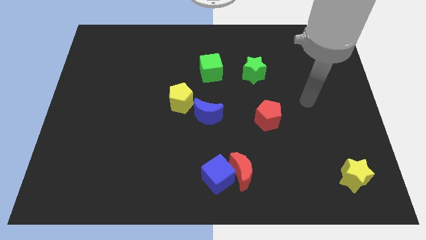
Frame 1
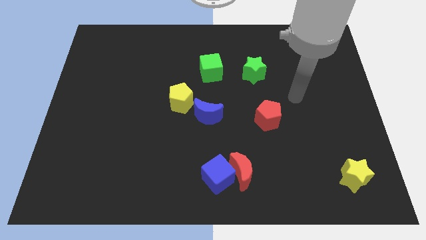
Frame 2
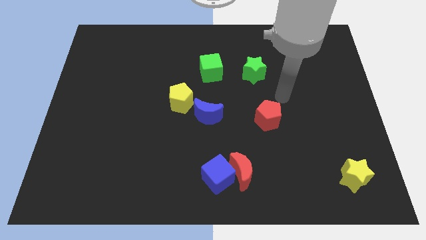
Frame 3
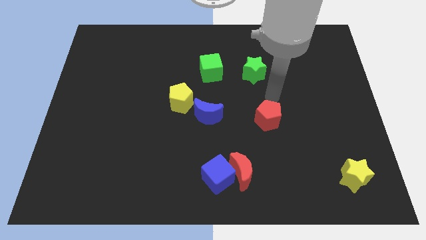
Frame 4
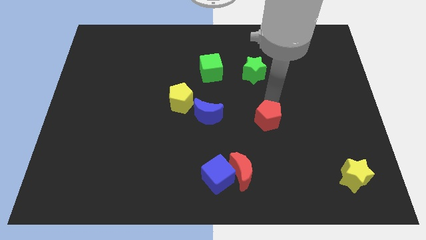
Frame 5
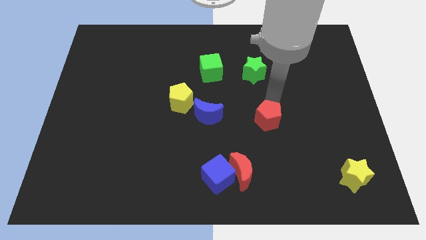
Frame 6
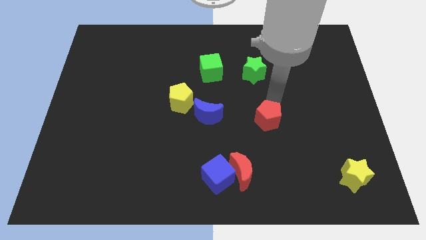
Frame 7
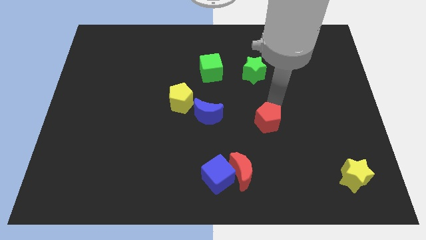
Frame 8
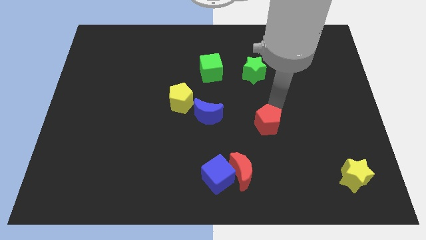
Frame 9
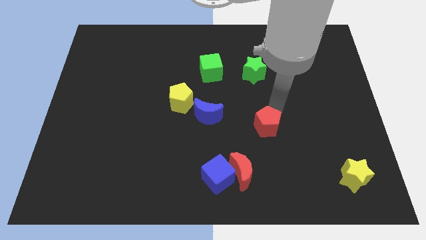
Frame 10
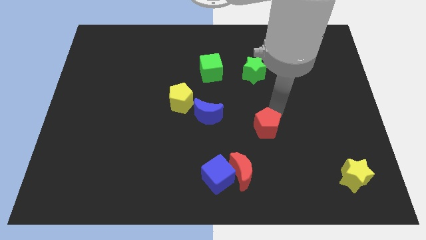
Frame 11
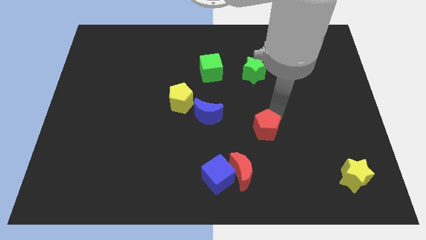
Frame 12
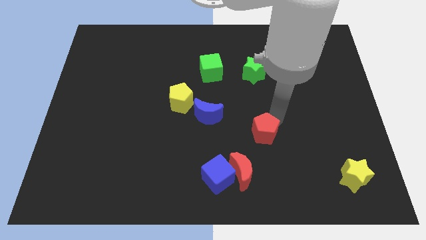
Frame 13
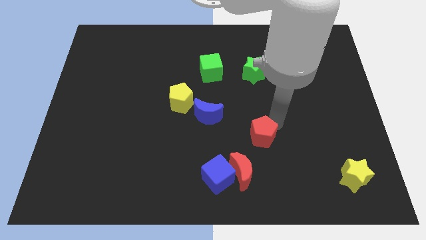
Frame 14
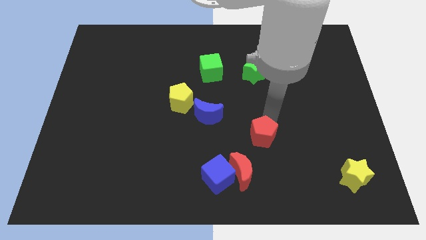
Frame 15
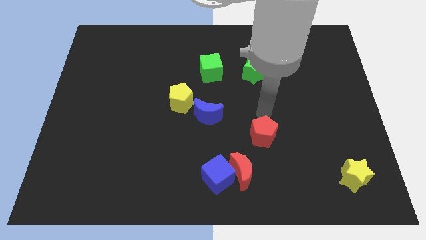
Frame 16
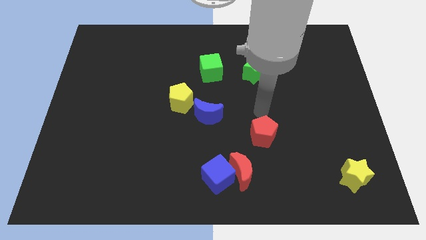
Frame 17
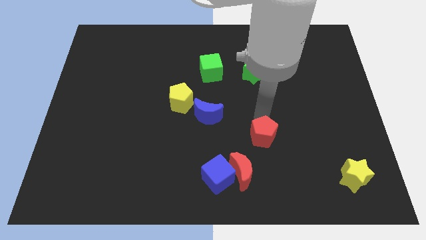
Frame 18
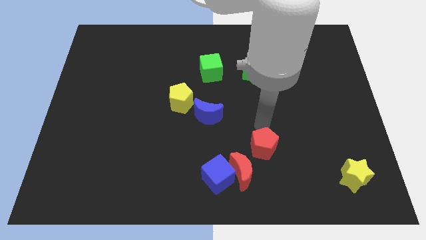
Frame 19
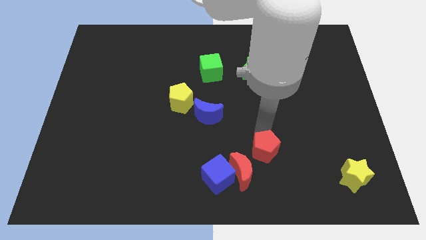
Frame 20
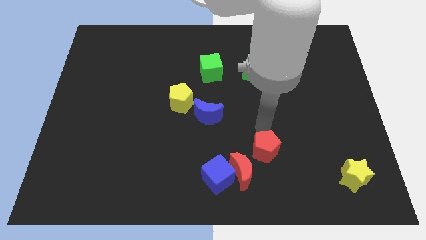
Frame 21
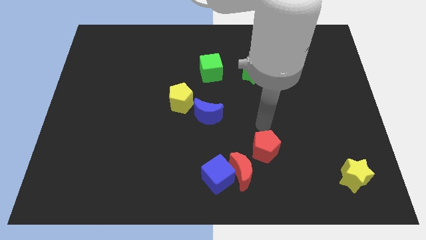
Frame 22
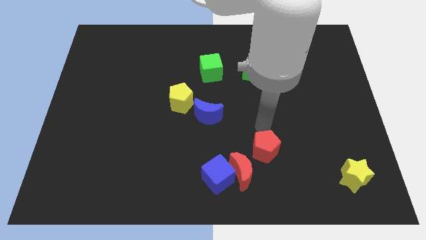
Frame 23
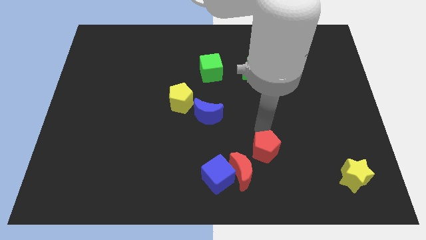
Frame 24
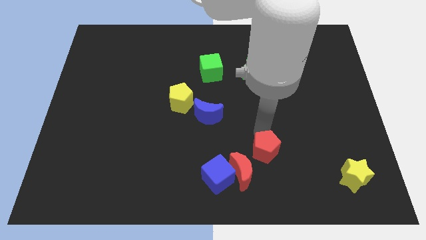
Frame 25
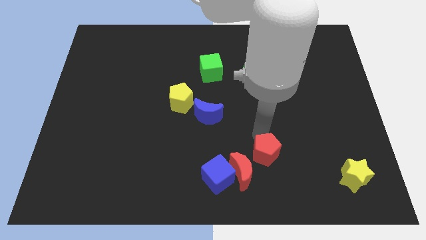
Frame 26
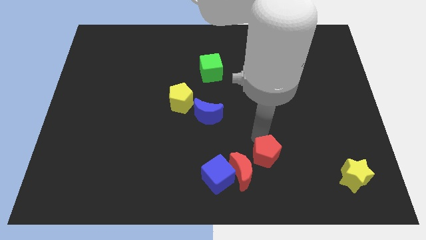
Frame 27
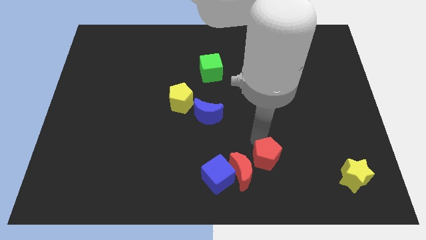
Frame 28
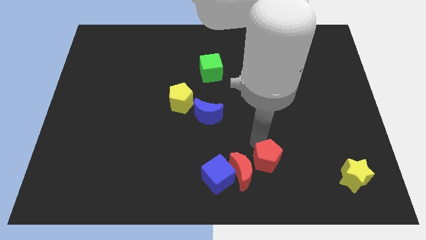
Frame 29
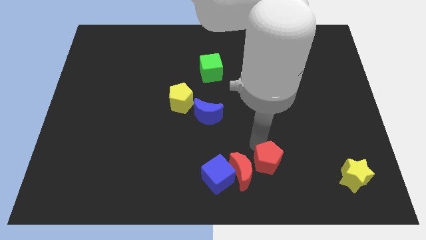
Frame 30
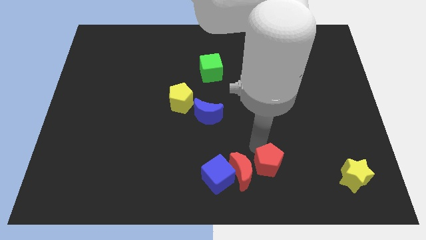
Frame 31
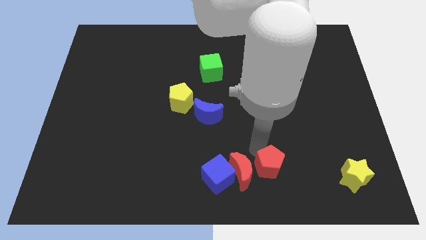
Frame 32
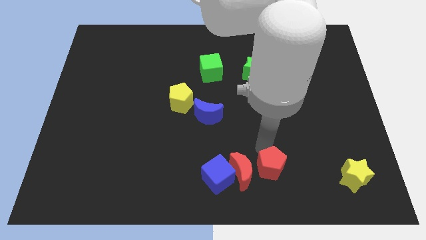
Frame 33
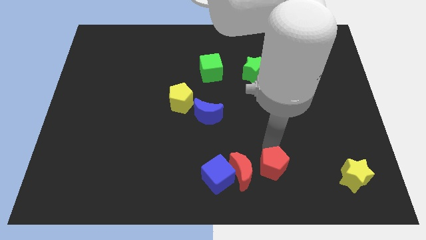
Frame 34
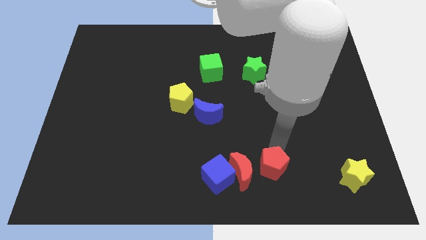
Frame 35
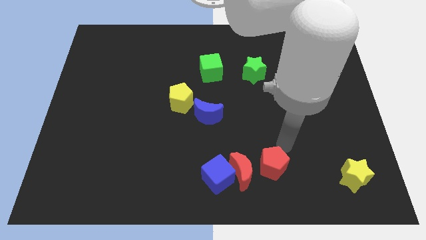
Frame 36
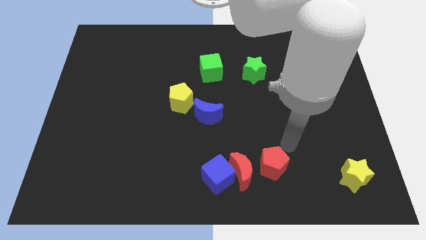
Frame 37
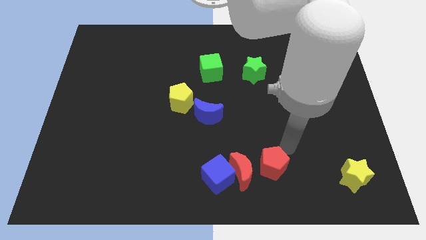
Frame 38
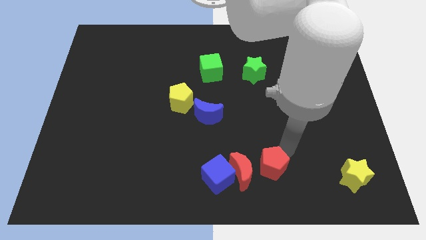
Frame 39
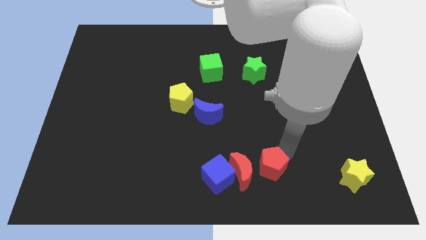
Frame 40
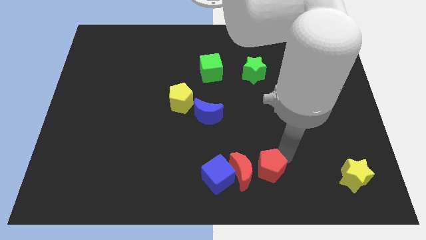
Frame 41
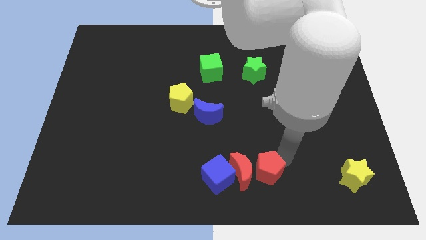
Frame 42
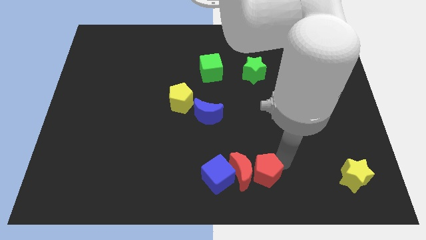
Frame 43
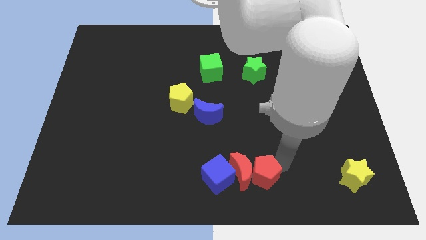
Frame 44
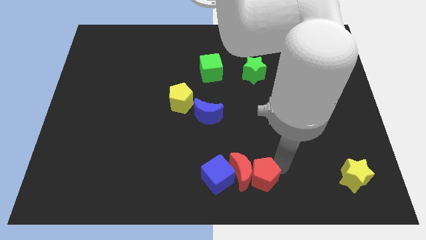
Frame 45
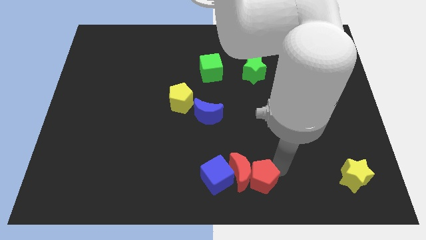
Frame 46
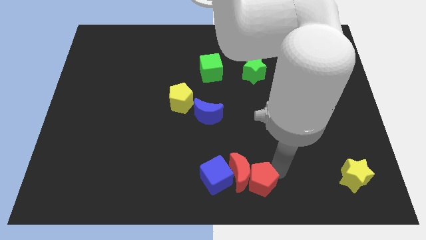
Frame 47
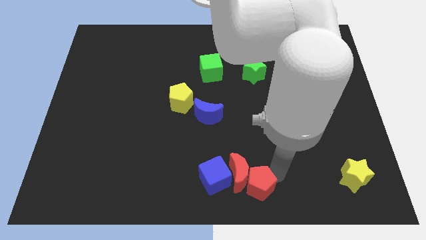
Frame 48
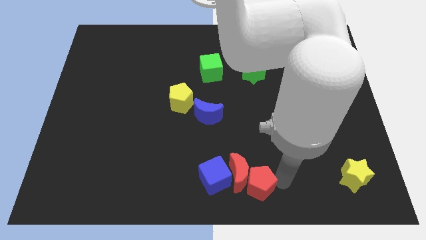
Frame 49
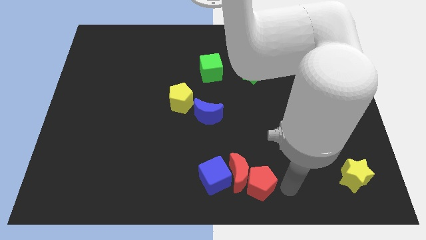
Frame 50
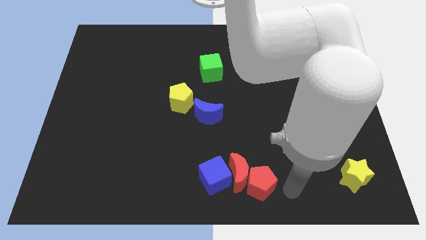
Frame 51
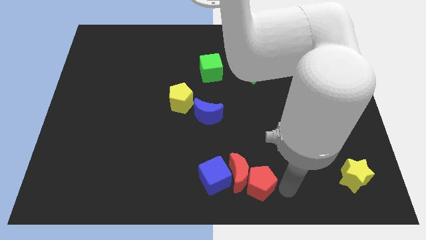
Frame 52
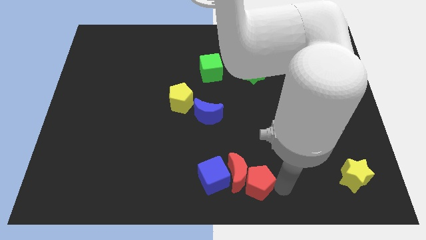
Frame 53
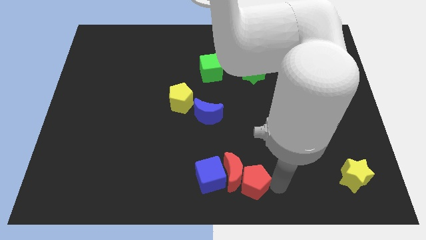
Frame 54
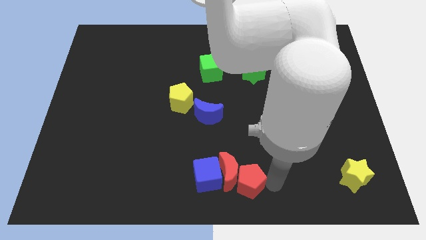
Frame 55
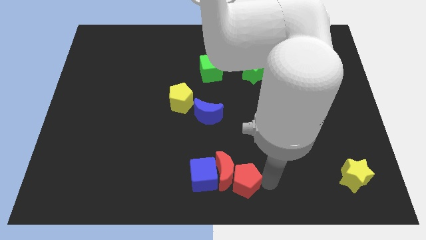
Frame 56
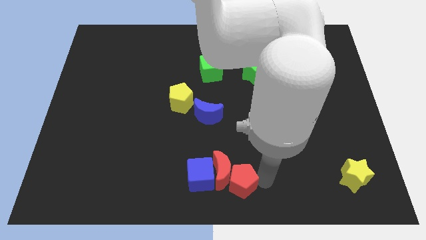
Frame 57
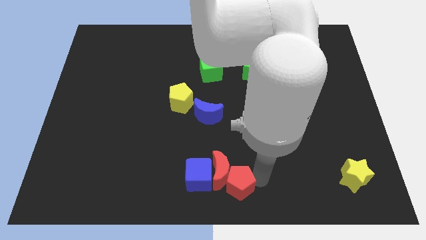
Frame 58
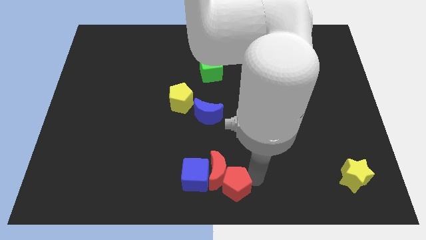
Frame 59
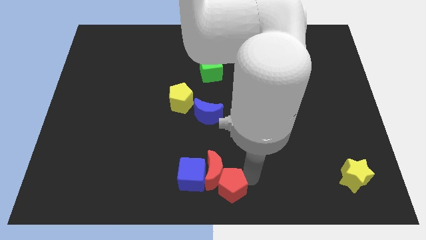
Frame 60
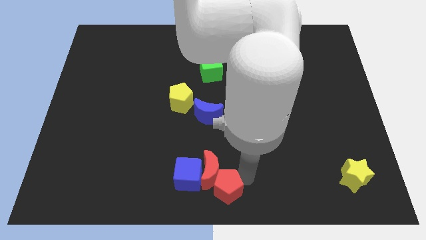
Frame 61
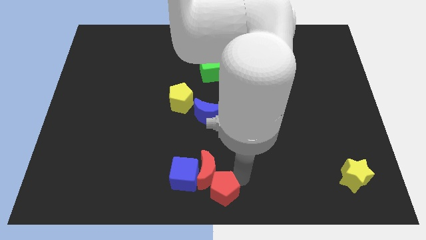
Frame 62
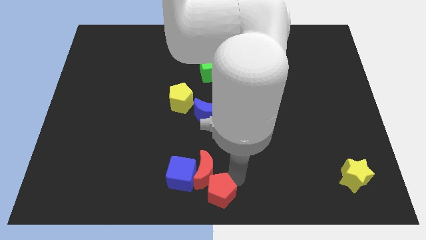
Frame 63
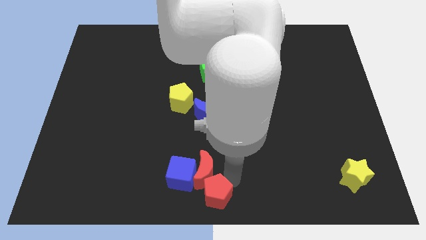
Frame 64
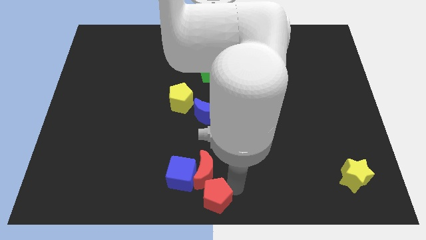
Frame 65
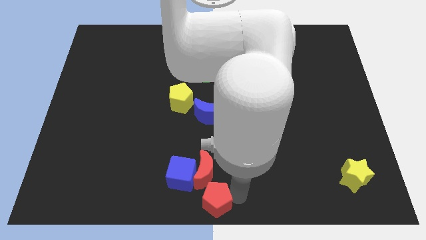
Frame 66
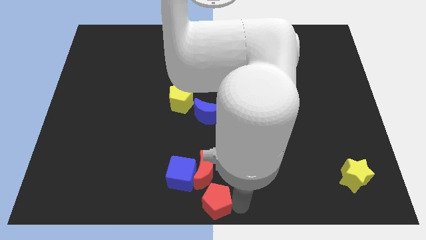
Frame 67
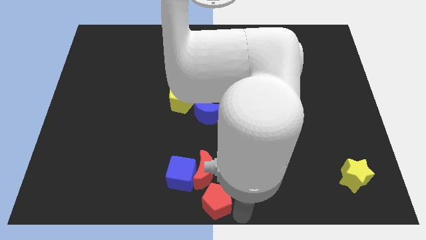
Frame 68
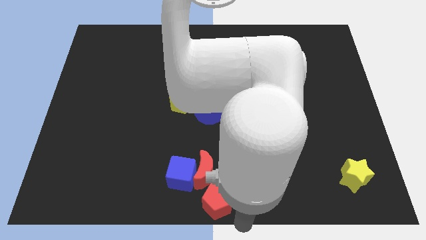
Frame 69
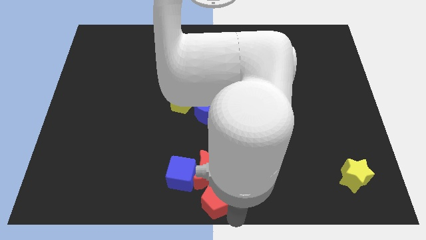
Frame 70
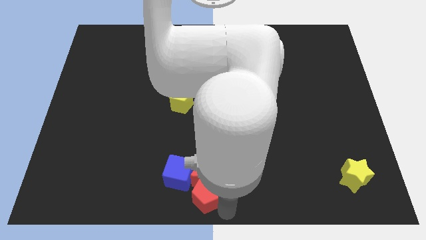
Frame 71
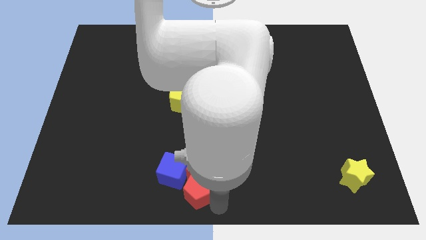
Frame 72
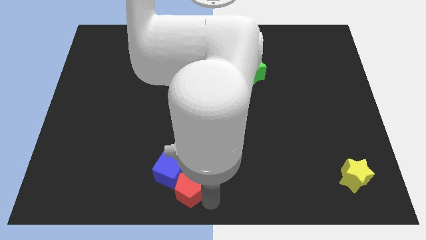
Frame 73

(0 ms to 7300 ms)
put the red pentagon towards the blue cube
